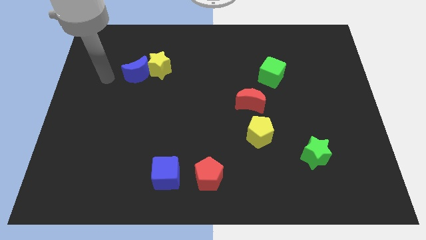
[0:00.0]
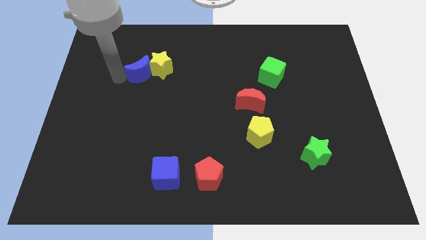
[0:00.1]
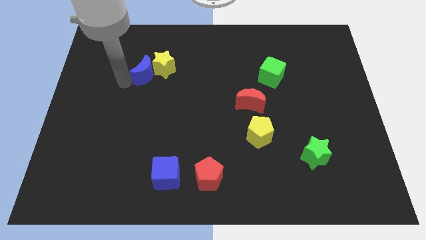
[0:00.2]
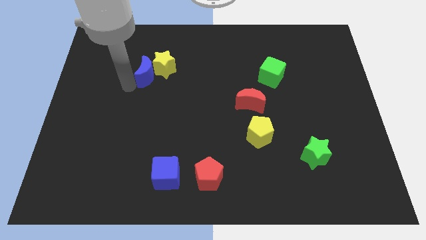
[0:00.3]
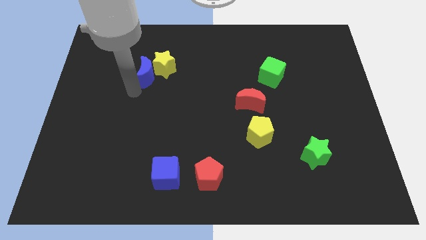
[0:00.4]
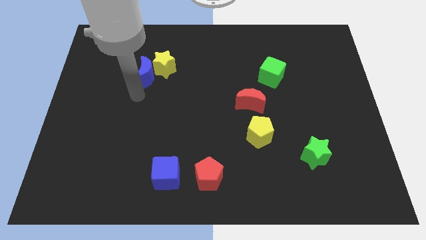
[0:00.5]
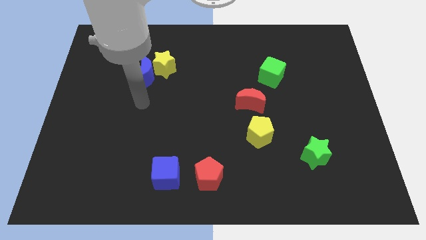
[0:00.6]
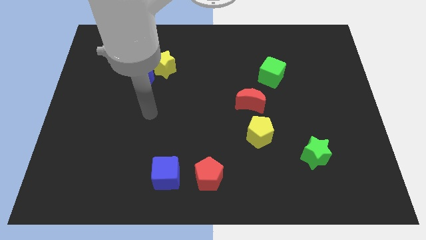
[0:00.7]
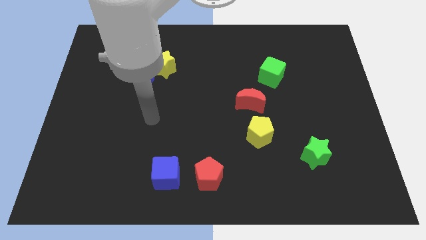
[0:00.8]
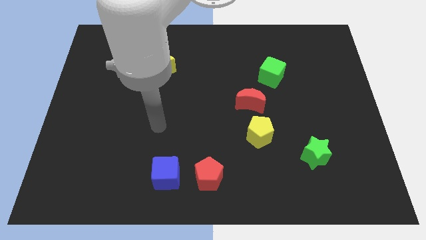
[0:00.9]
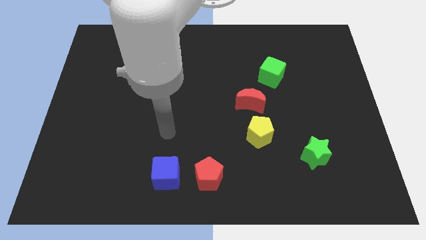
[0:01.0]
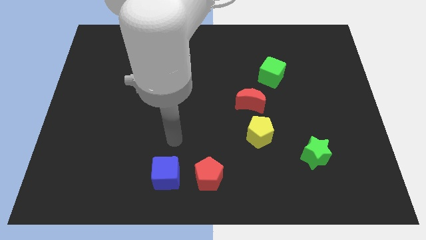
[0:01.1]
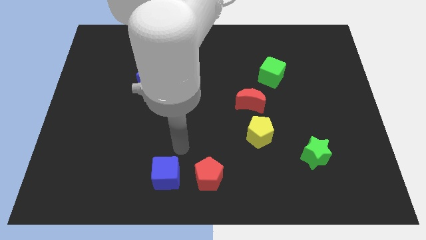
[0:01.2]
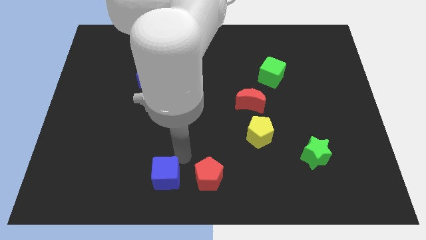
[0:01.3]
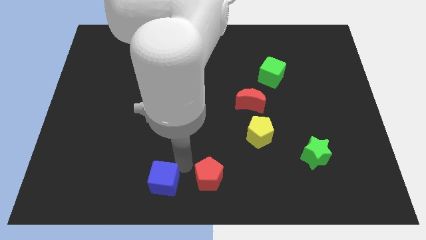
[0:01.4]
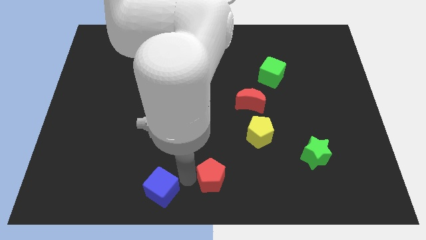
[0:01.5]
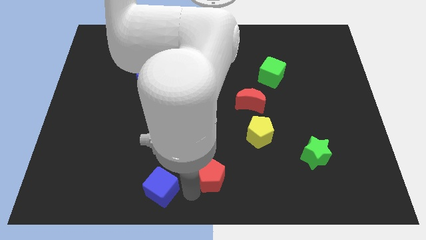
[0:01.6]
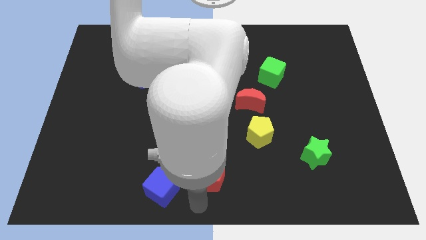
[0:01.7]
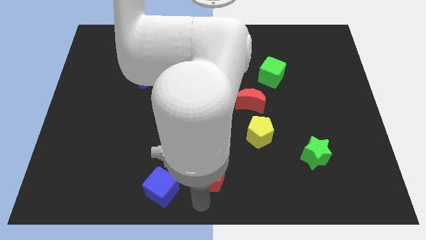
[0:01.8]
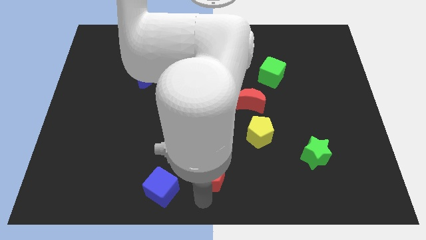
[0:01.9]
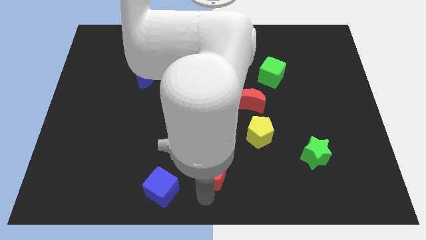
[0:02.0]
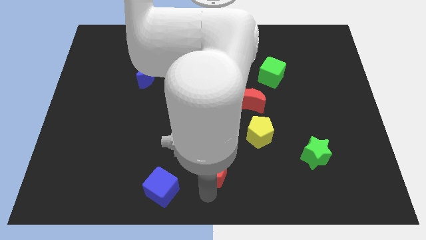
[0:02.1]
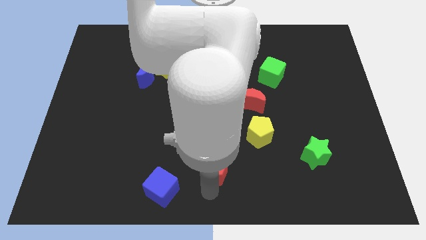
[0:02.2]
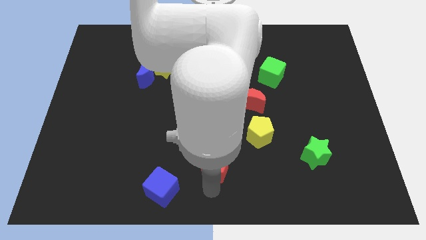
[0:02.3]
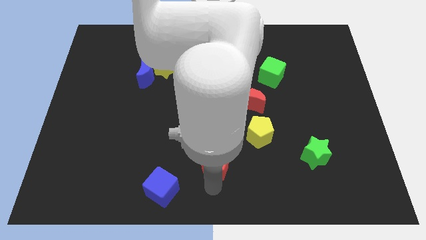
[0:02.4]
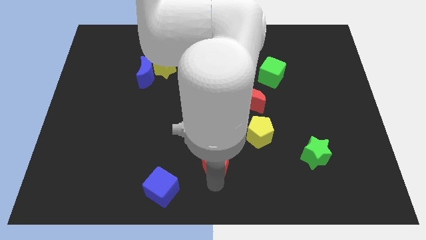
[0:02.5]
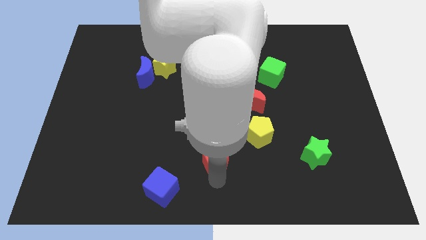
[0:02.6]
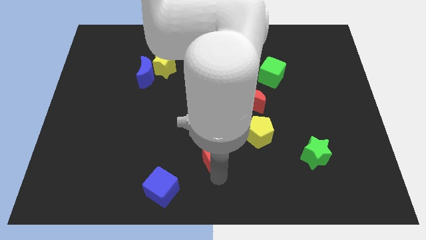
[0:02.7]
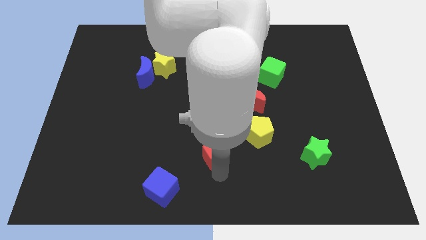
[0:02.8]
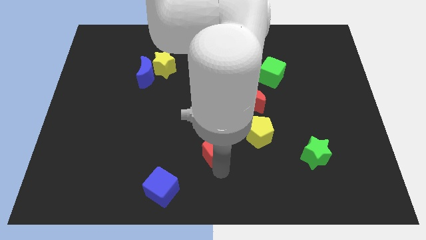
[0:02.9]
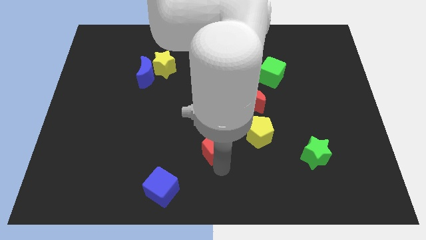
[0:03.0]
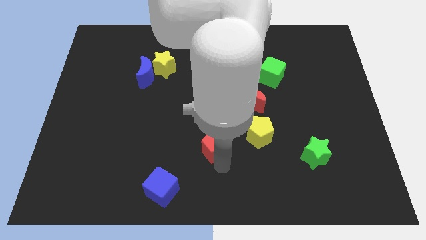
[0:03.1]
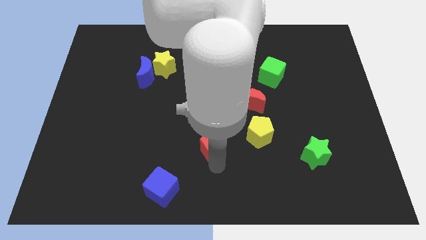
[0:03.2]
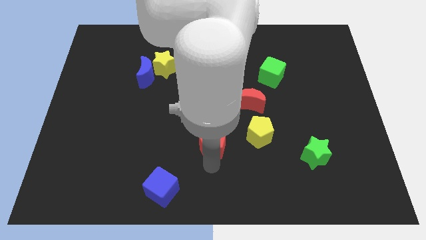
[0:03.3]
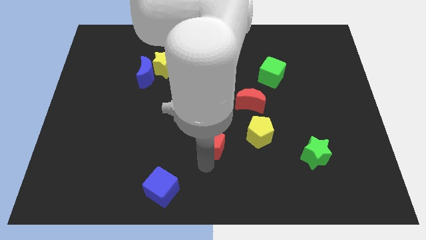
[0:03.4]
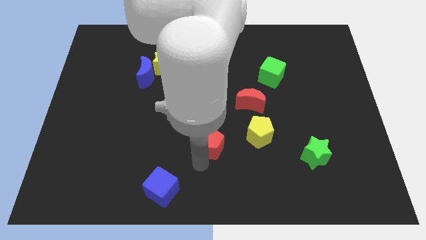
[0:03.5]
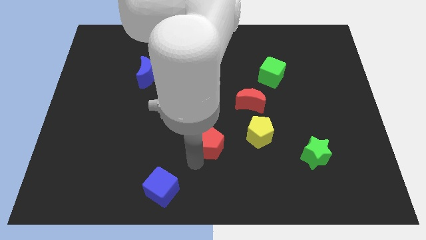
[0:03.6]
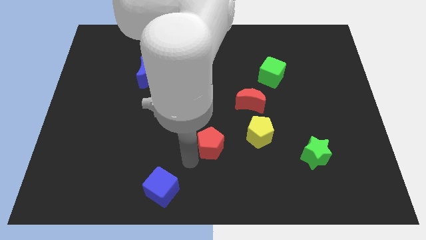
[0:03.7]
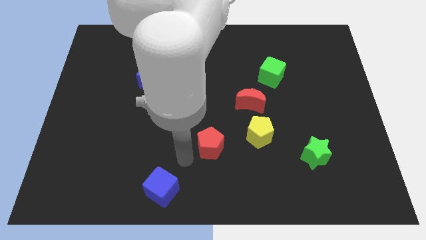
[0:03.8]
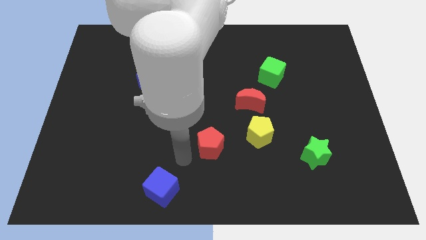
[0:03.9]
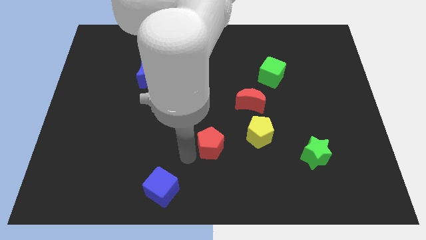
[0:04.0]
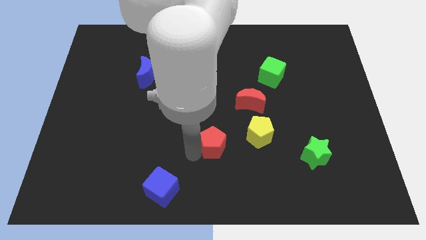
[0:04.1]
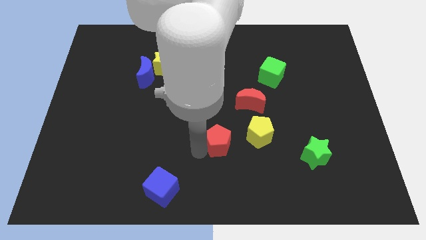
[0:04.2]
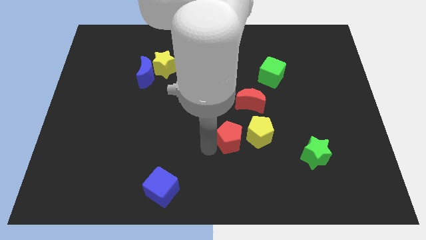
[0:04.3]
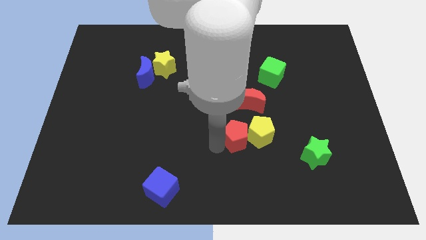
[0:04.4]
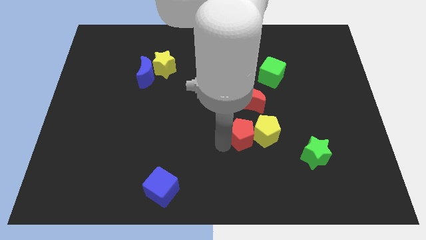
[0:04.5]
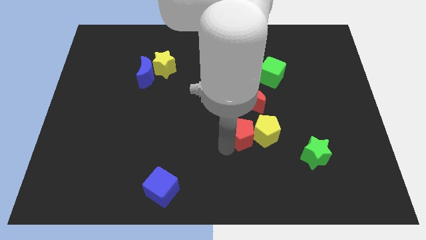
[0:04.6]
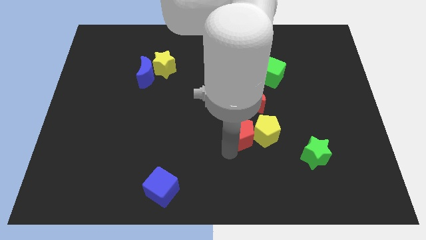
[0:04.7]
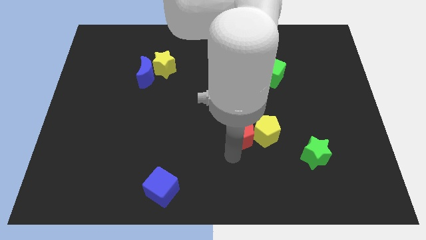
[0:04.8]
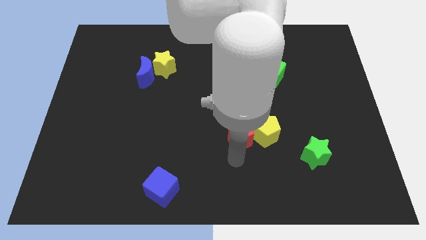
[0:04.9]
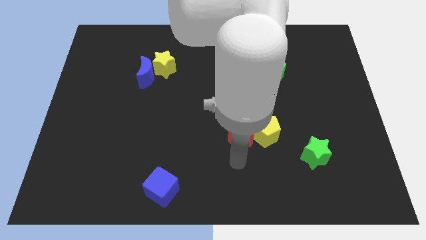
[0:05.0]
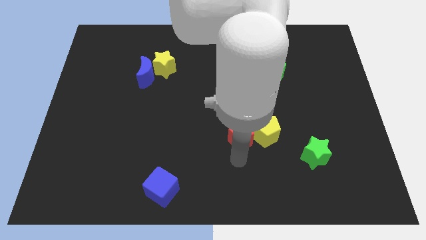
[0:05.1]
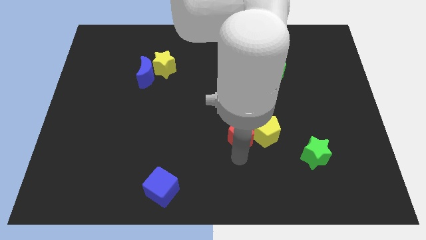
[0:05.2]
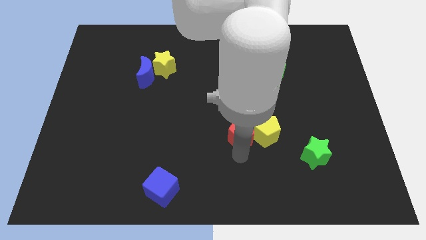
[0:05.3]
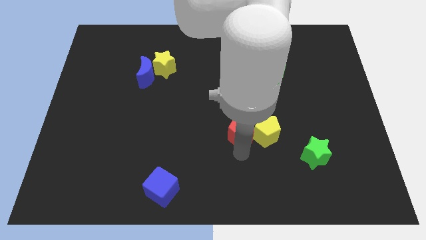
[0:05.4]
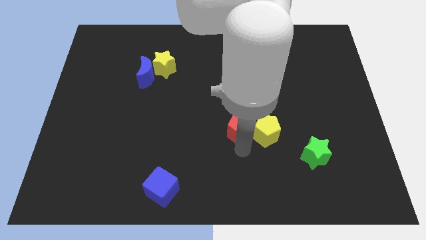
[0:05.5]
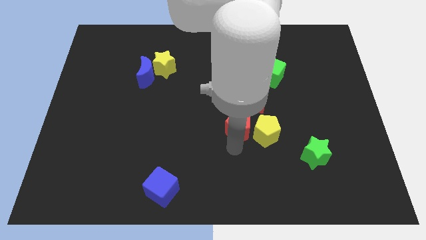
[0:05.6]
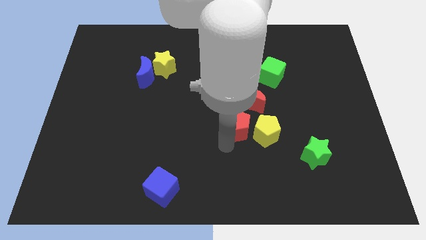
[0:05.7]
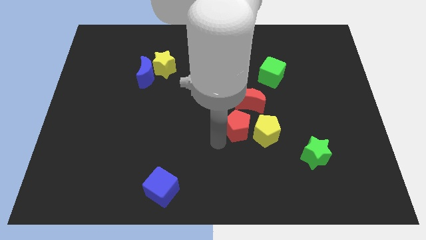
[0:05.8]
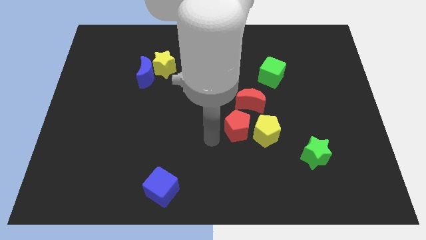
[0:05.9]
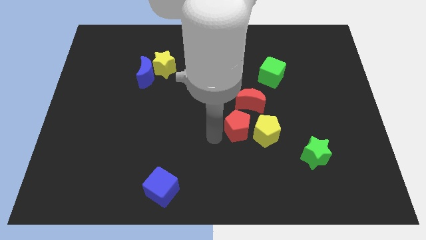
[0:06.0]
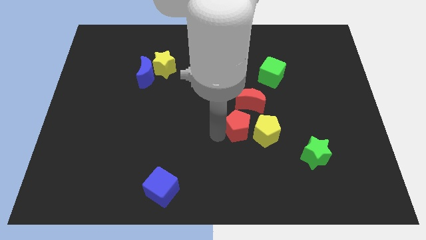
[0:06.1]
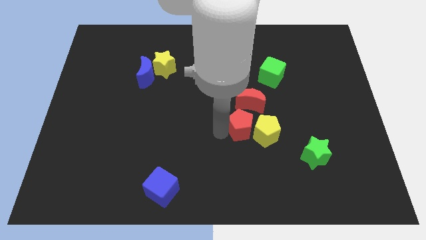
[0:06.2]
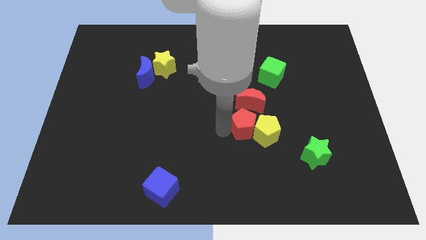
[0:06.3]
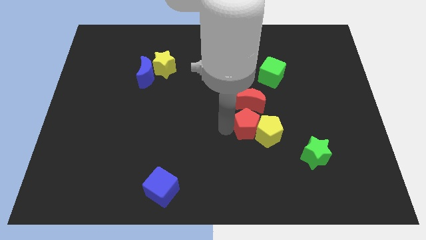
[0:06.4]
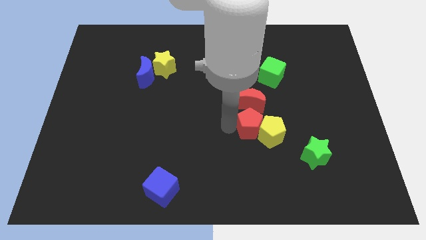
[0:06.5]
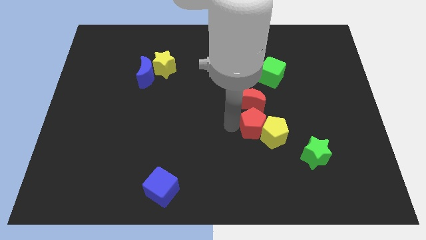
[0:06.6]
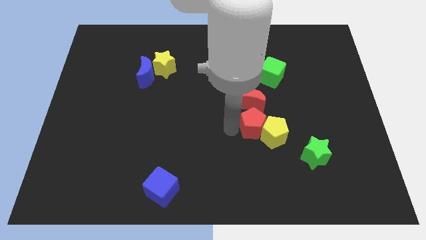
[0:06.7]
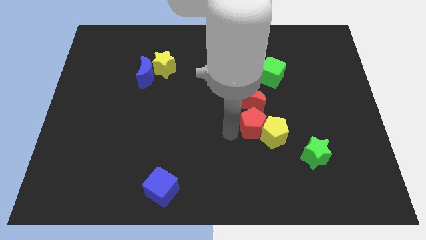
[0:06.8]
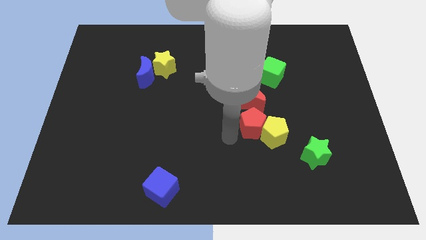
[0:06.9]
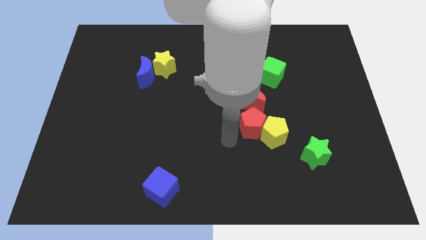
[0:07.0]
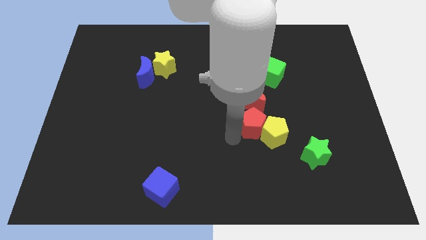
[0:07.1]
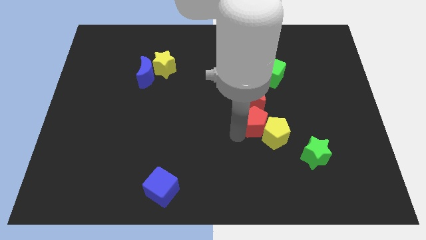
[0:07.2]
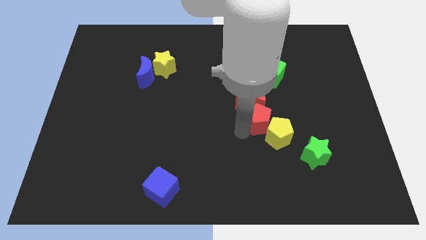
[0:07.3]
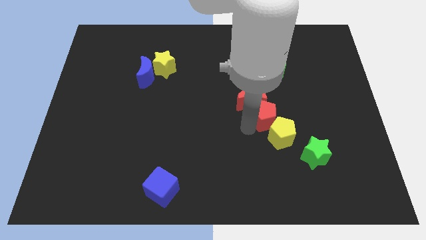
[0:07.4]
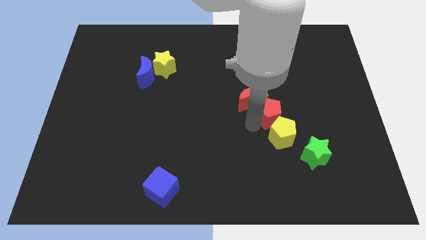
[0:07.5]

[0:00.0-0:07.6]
slide the red pentagon upwards and then to the right

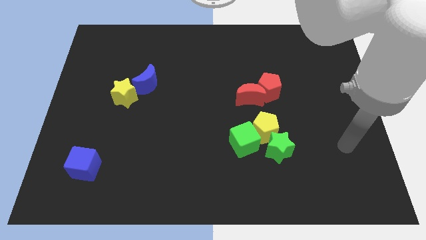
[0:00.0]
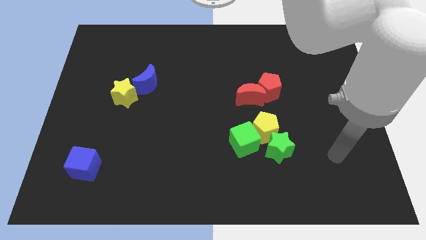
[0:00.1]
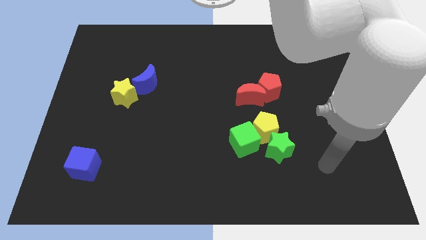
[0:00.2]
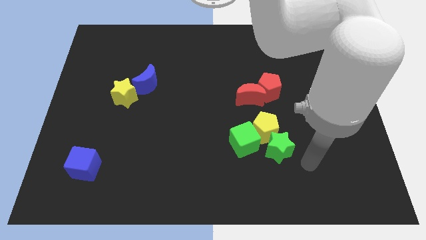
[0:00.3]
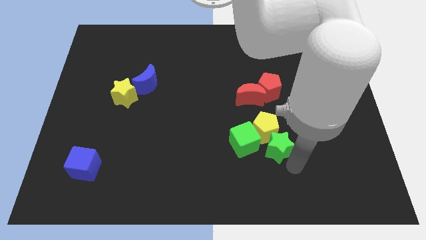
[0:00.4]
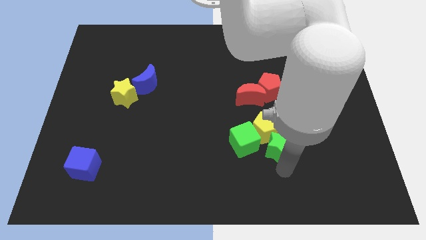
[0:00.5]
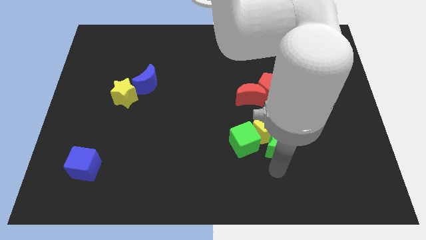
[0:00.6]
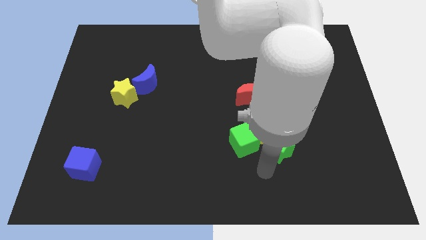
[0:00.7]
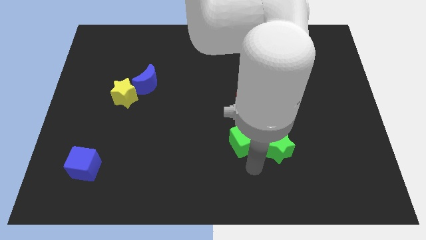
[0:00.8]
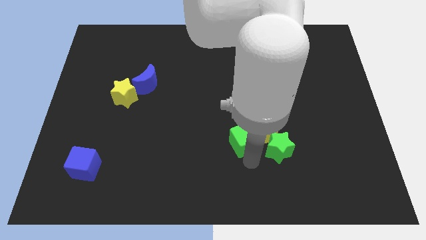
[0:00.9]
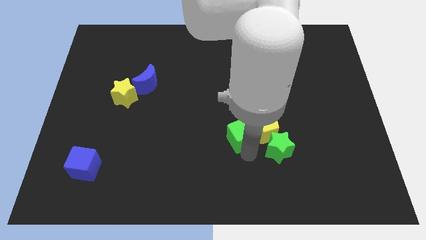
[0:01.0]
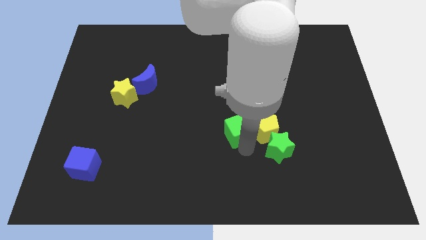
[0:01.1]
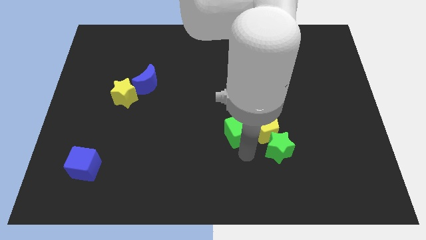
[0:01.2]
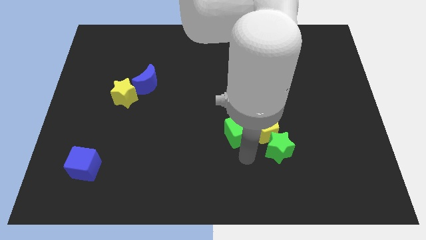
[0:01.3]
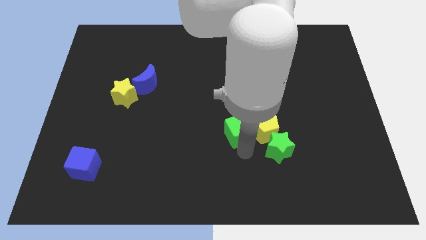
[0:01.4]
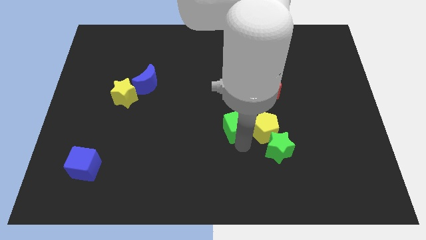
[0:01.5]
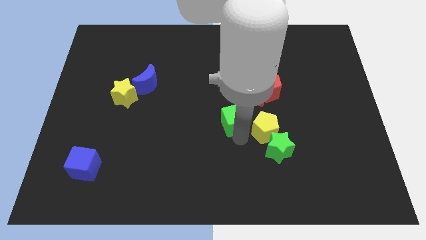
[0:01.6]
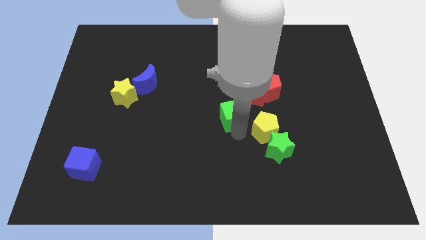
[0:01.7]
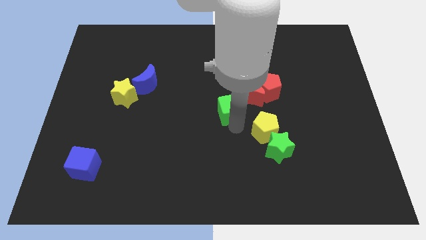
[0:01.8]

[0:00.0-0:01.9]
slide the green cube a little up
